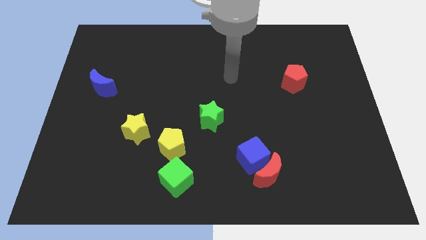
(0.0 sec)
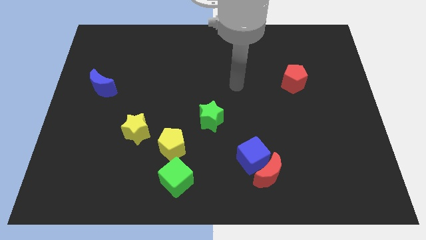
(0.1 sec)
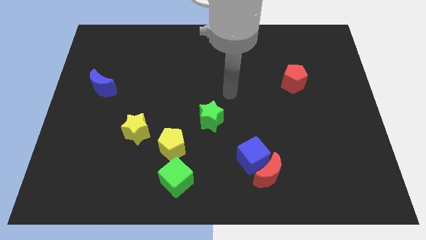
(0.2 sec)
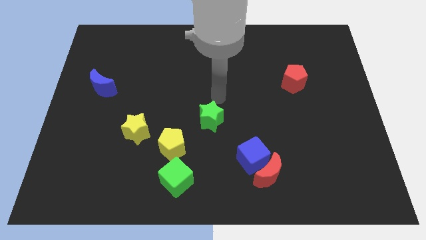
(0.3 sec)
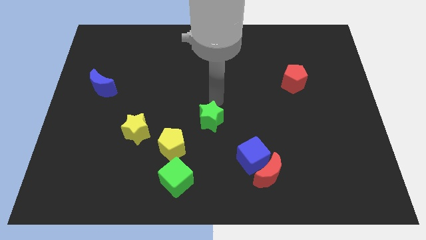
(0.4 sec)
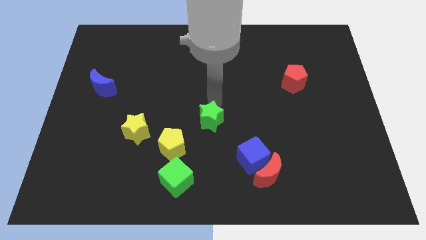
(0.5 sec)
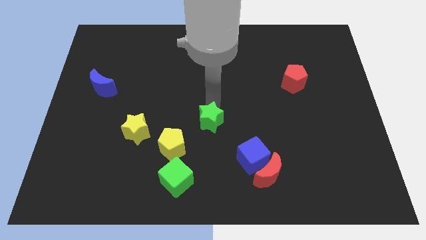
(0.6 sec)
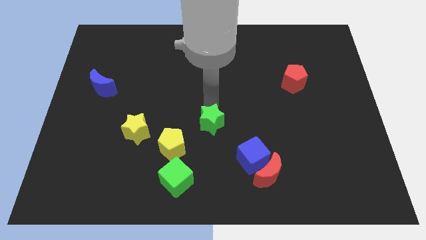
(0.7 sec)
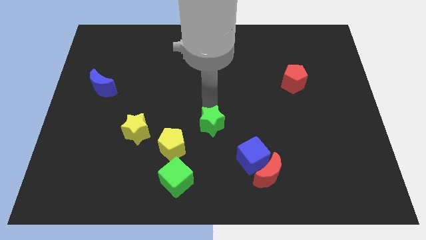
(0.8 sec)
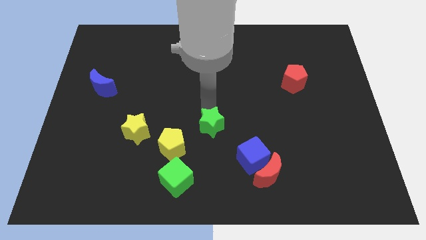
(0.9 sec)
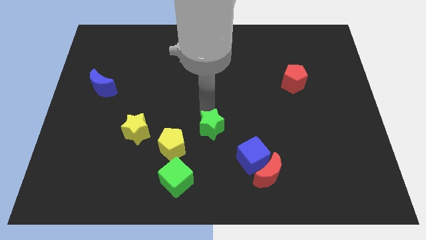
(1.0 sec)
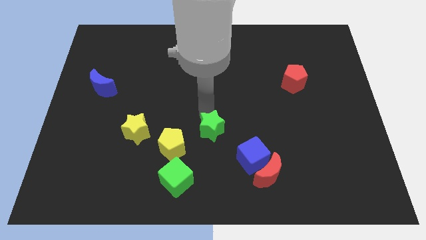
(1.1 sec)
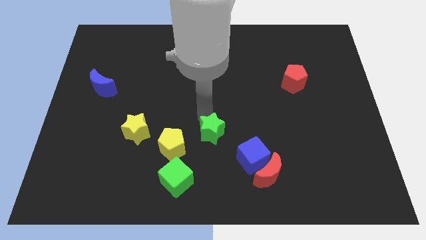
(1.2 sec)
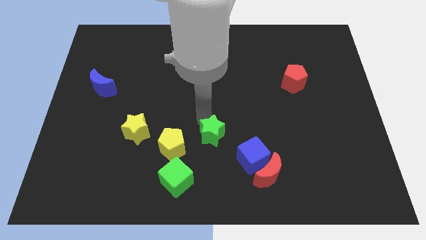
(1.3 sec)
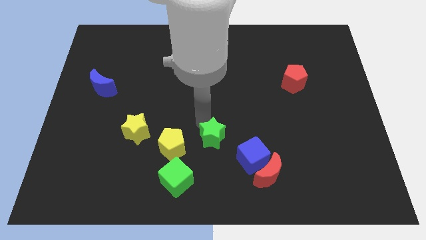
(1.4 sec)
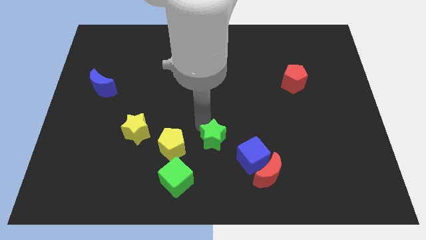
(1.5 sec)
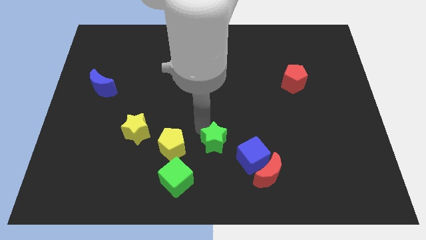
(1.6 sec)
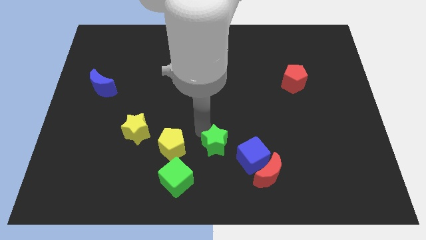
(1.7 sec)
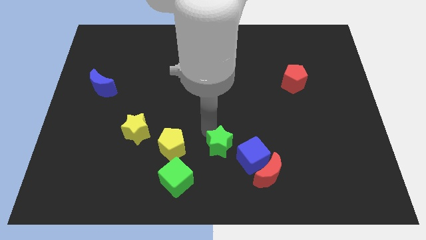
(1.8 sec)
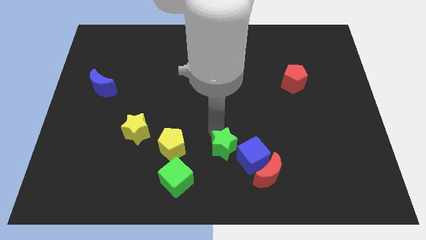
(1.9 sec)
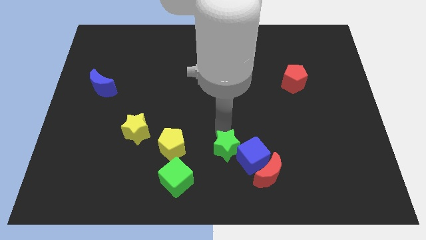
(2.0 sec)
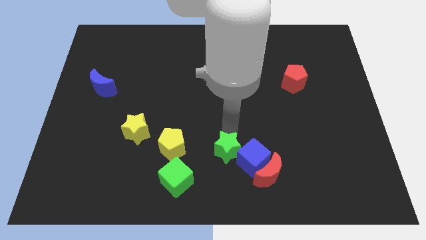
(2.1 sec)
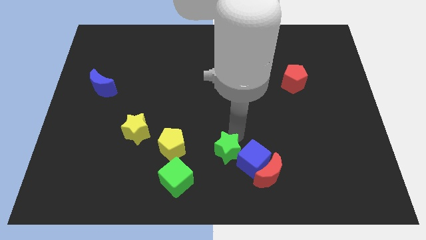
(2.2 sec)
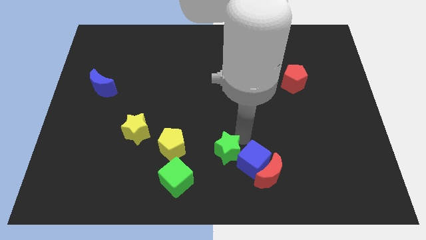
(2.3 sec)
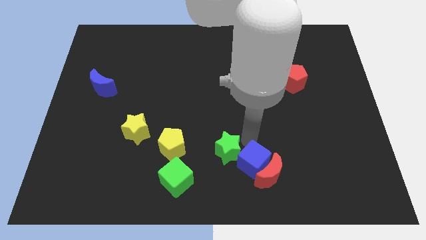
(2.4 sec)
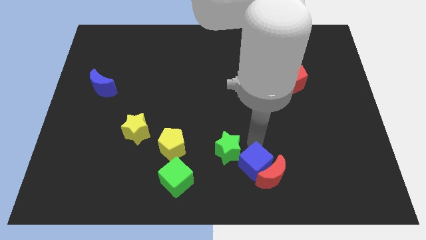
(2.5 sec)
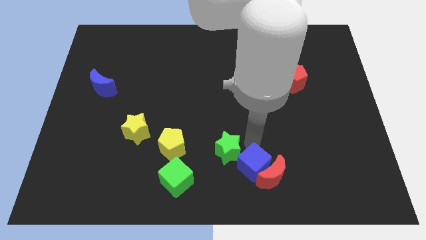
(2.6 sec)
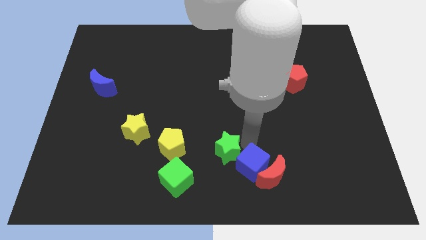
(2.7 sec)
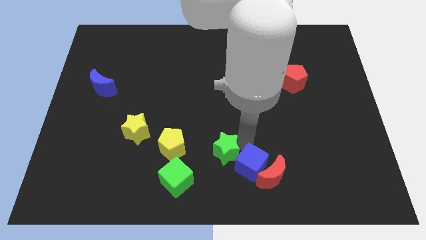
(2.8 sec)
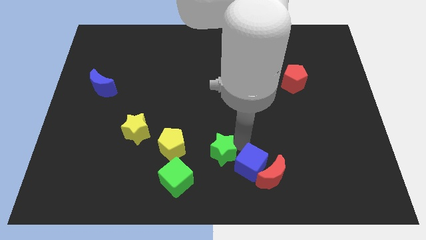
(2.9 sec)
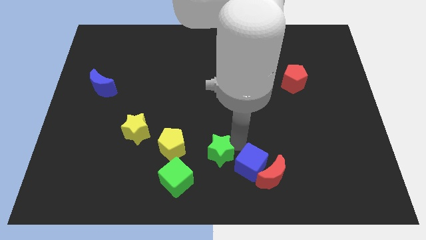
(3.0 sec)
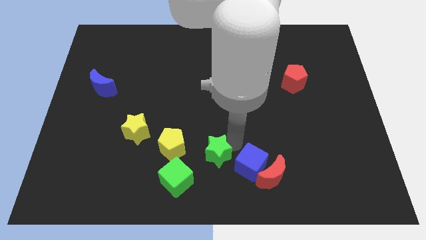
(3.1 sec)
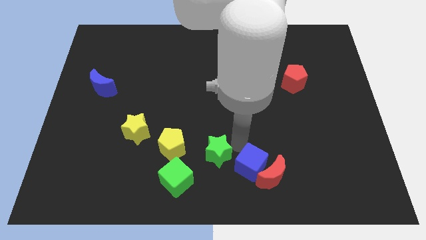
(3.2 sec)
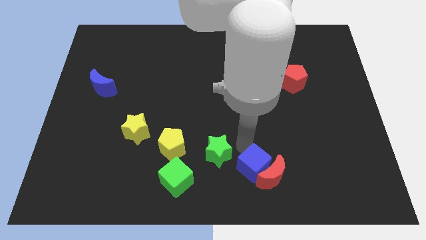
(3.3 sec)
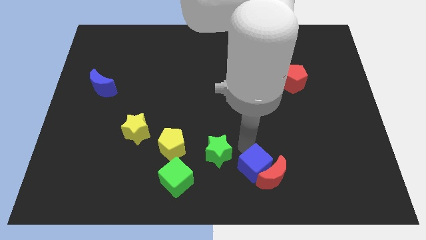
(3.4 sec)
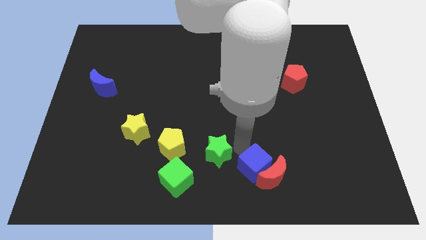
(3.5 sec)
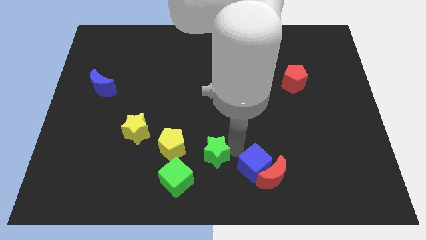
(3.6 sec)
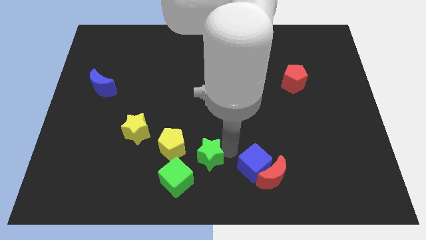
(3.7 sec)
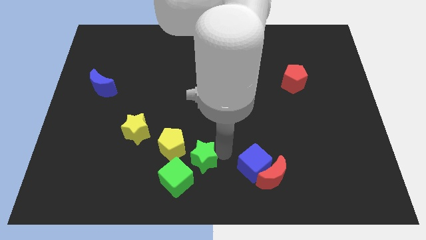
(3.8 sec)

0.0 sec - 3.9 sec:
slide the green star down and to the left slightly

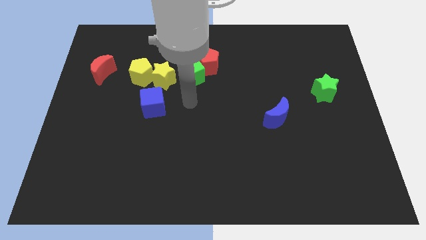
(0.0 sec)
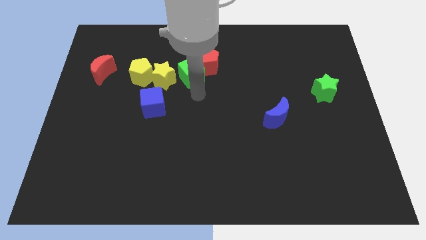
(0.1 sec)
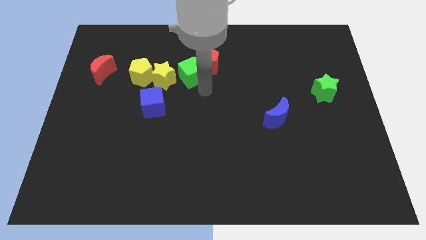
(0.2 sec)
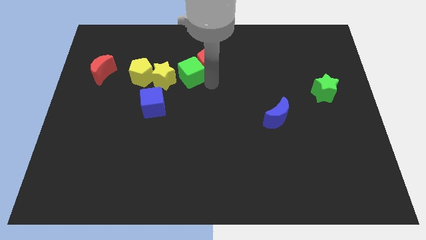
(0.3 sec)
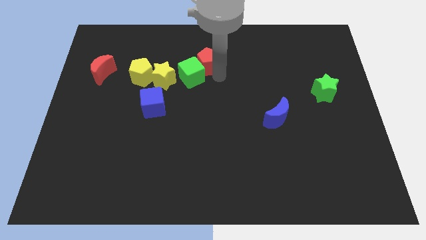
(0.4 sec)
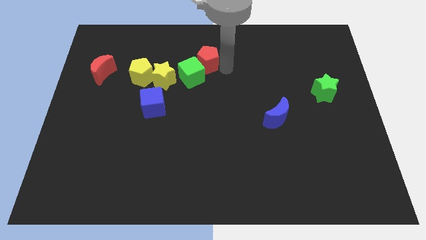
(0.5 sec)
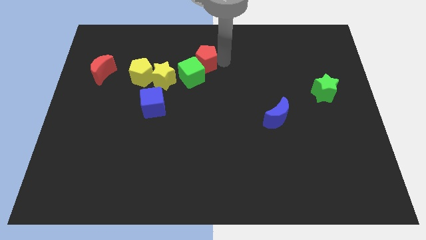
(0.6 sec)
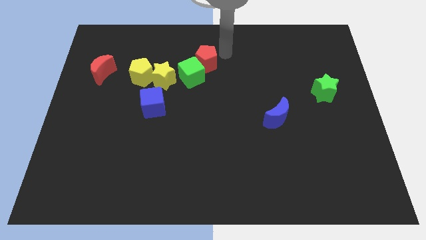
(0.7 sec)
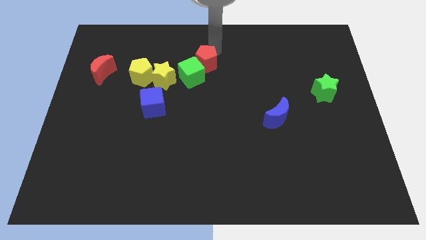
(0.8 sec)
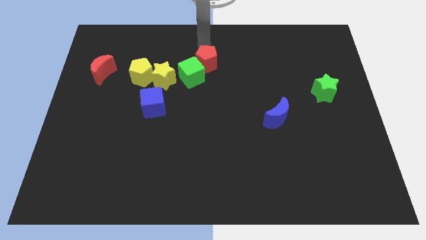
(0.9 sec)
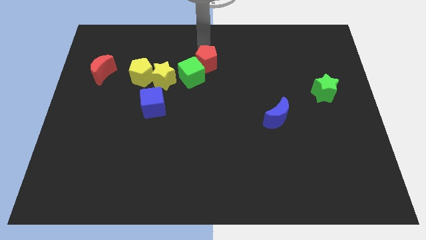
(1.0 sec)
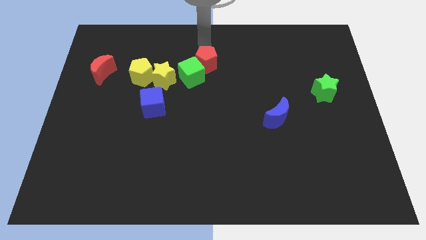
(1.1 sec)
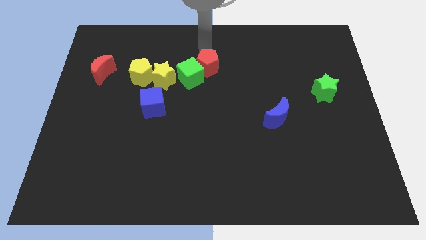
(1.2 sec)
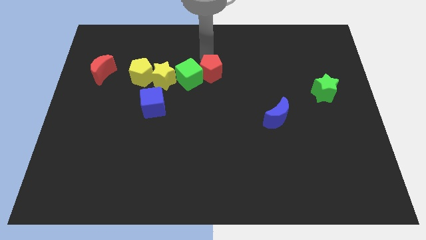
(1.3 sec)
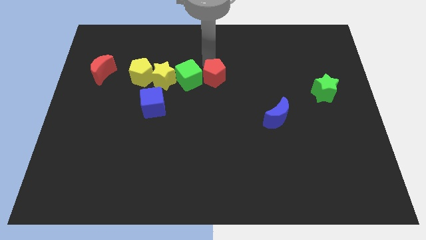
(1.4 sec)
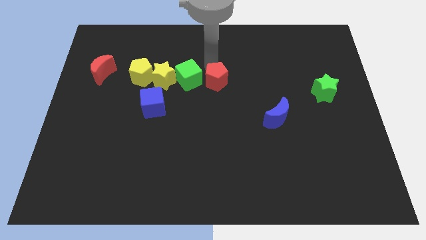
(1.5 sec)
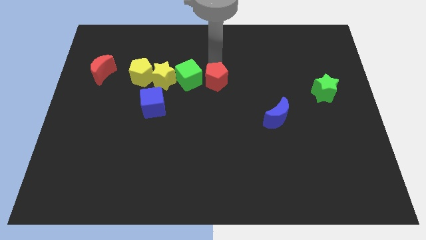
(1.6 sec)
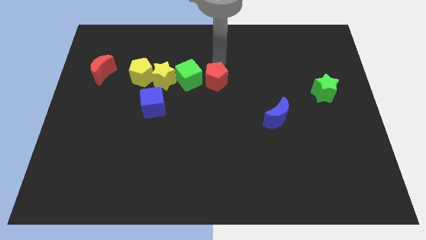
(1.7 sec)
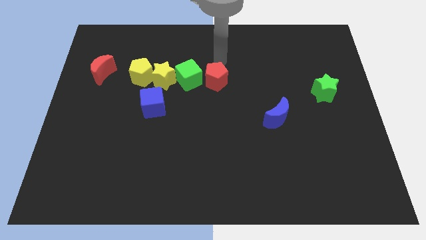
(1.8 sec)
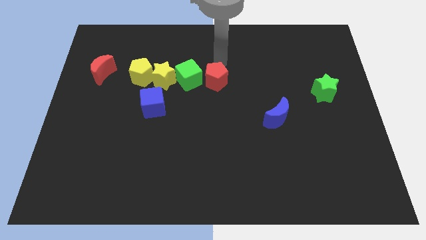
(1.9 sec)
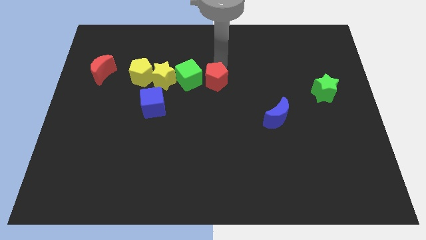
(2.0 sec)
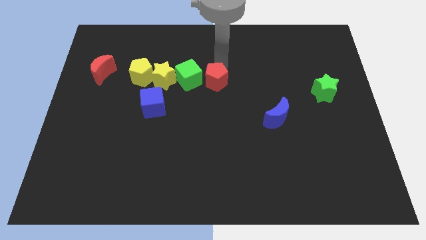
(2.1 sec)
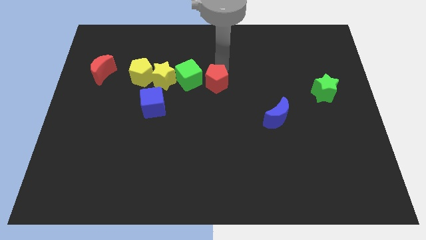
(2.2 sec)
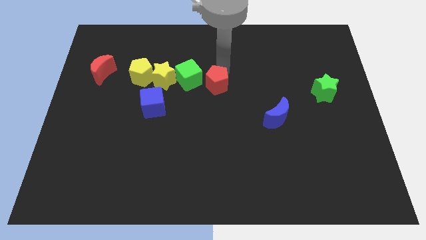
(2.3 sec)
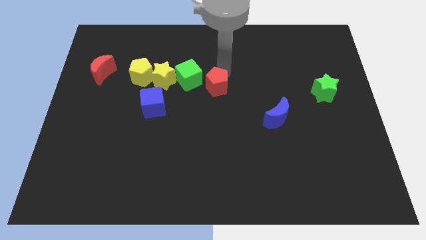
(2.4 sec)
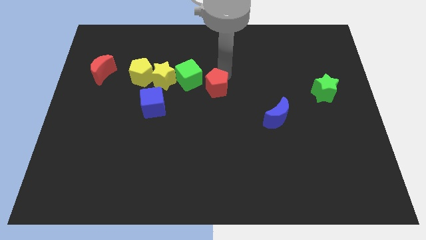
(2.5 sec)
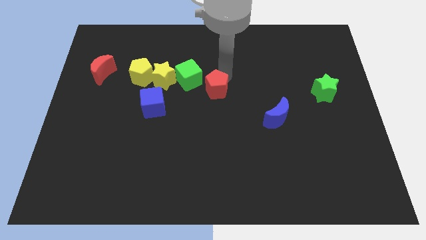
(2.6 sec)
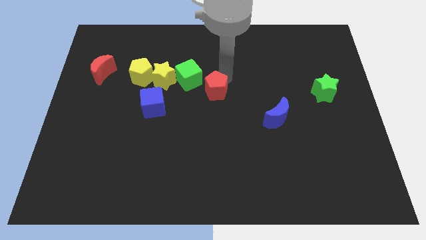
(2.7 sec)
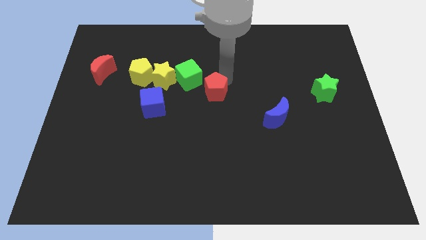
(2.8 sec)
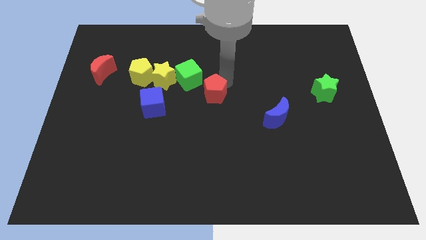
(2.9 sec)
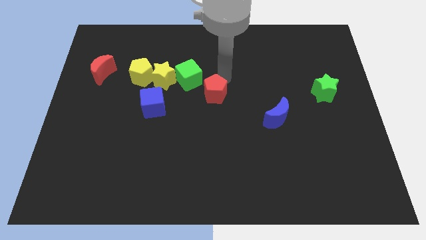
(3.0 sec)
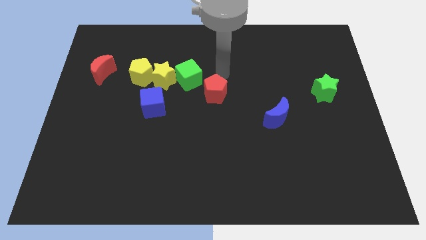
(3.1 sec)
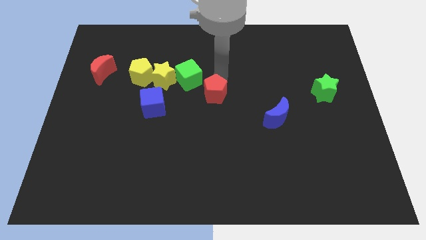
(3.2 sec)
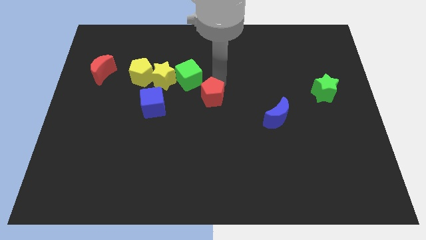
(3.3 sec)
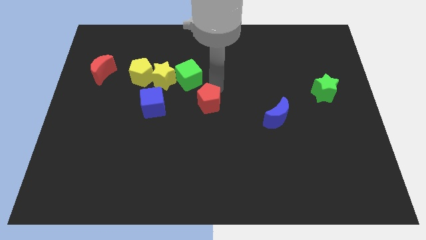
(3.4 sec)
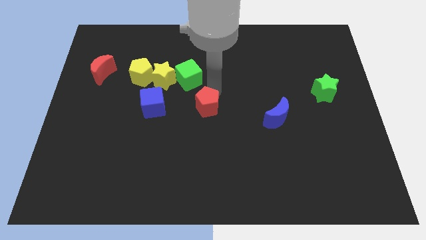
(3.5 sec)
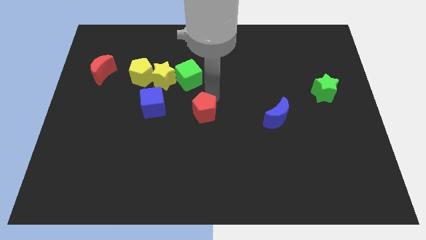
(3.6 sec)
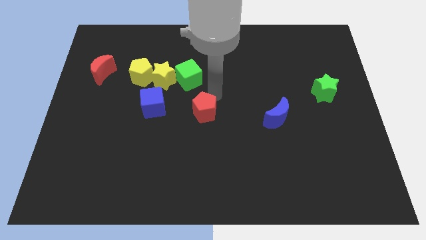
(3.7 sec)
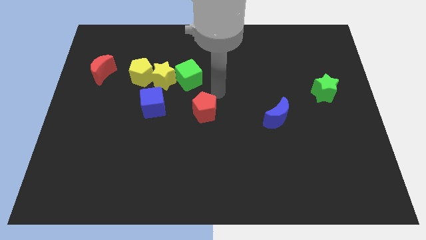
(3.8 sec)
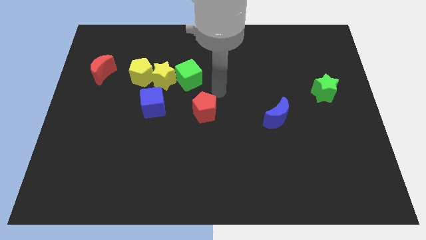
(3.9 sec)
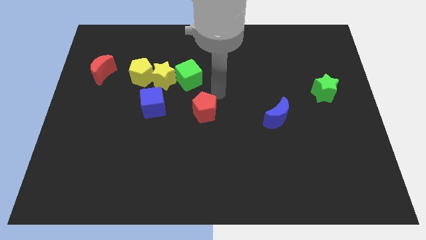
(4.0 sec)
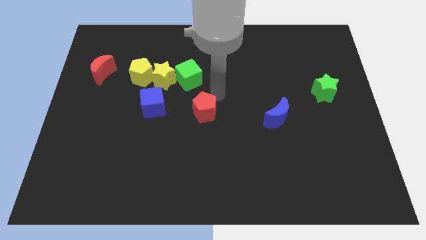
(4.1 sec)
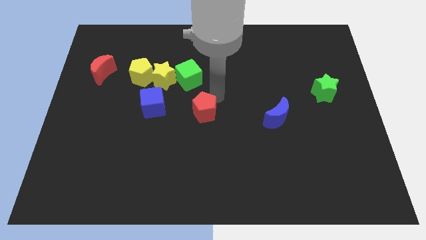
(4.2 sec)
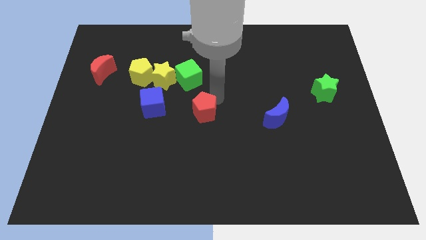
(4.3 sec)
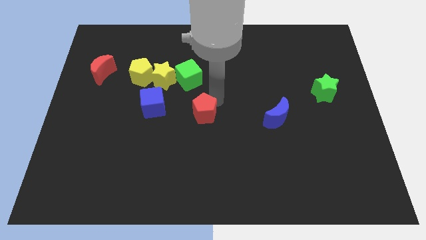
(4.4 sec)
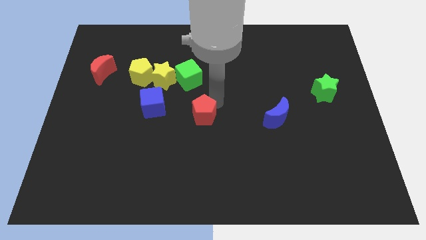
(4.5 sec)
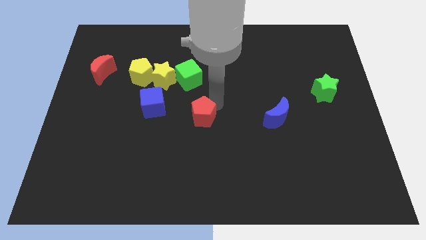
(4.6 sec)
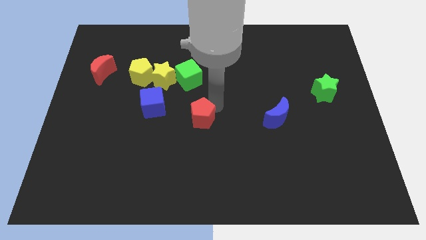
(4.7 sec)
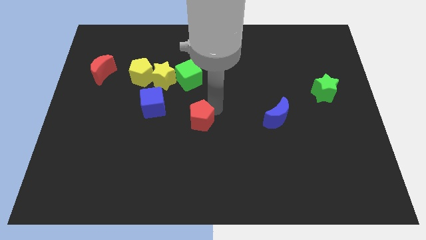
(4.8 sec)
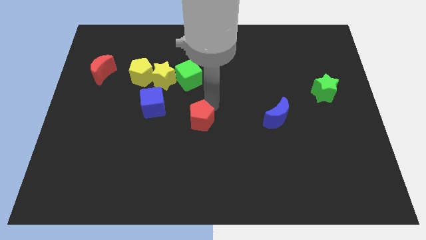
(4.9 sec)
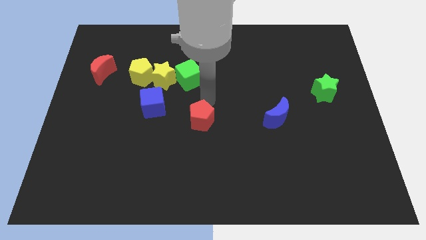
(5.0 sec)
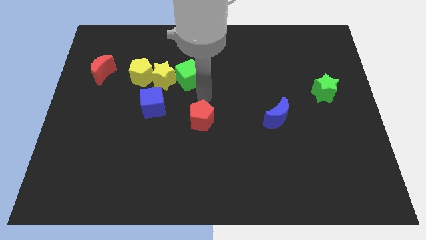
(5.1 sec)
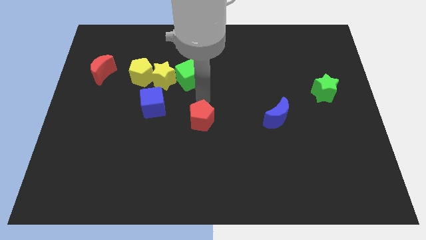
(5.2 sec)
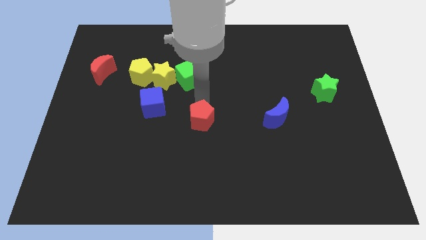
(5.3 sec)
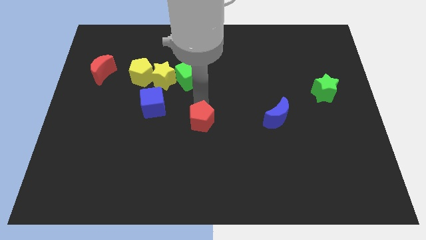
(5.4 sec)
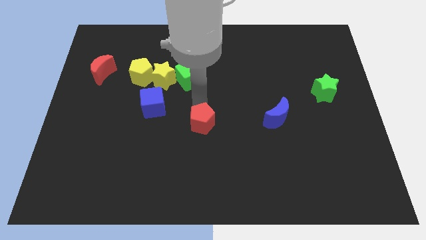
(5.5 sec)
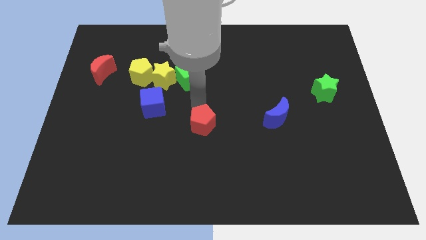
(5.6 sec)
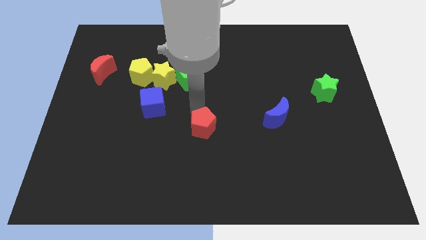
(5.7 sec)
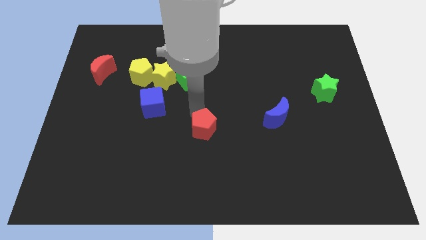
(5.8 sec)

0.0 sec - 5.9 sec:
move the red pentagon down
